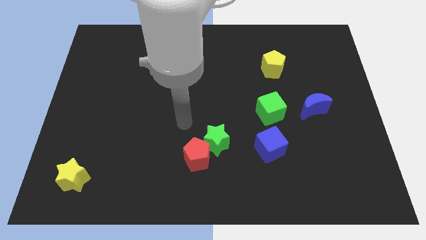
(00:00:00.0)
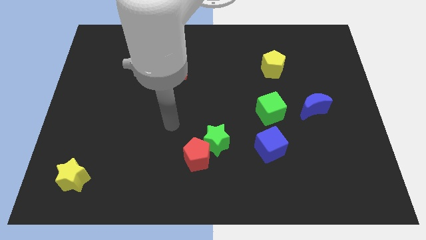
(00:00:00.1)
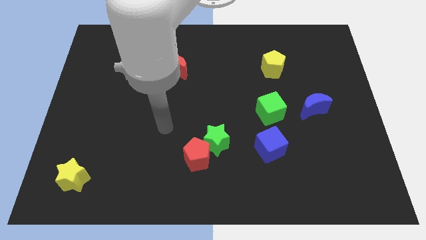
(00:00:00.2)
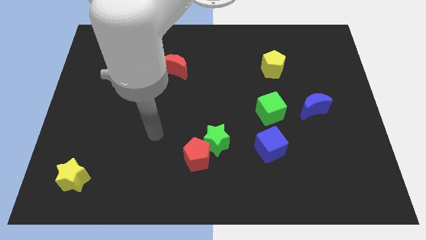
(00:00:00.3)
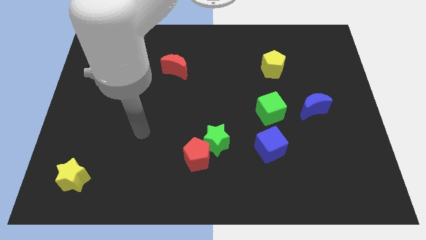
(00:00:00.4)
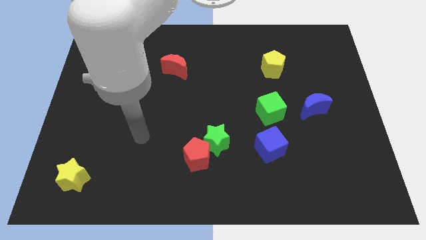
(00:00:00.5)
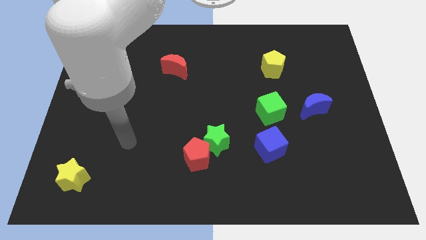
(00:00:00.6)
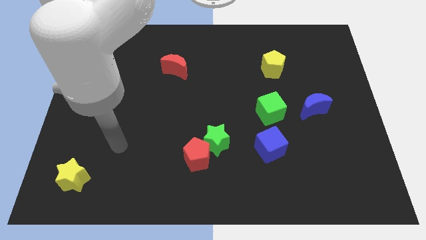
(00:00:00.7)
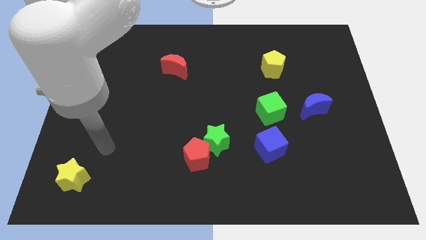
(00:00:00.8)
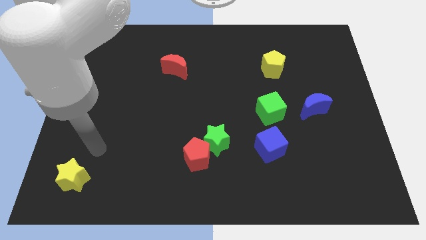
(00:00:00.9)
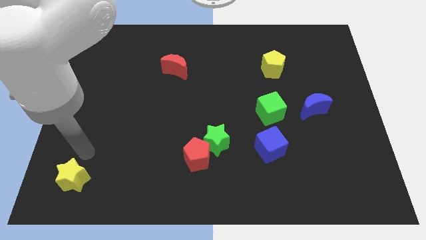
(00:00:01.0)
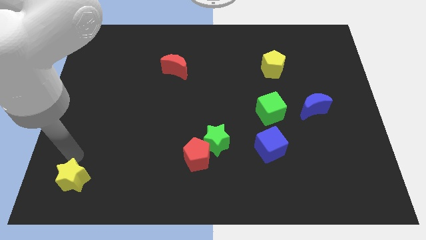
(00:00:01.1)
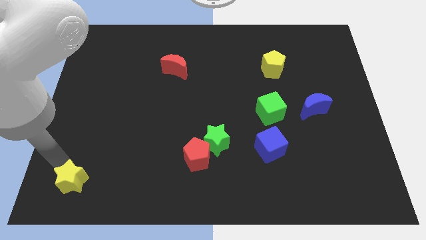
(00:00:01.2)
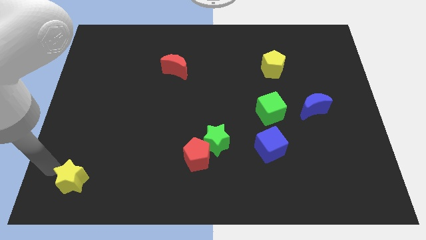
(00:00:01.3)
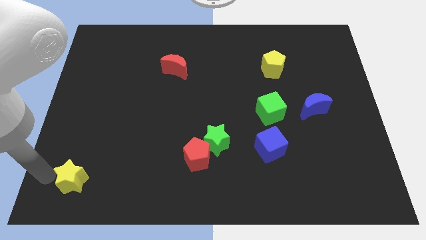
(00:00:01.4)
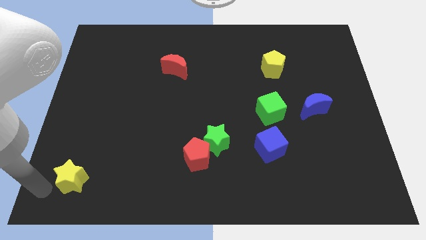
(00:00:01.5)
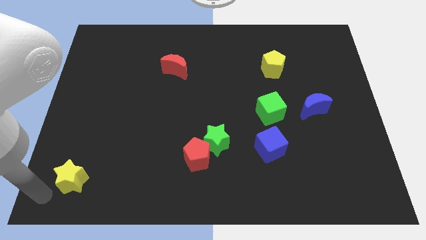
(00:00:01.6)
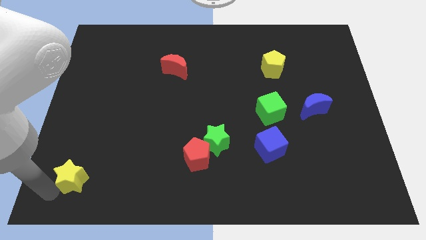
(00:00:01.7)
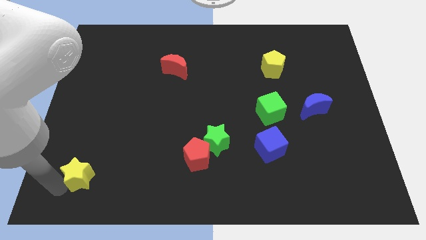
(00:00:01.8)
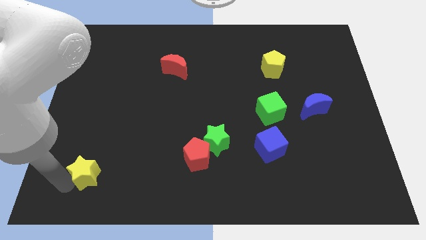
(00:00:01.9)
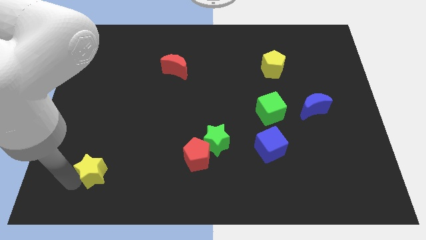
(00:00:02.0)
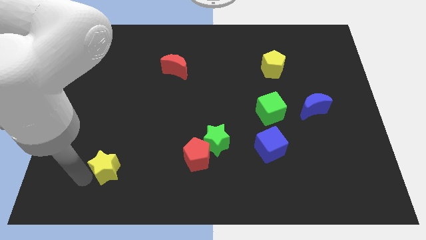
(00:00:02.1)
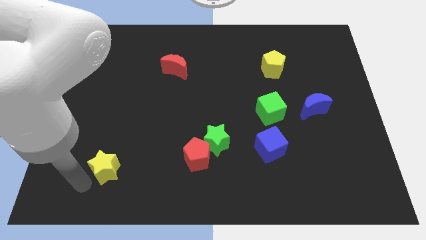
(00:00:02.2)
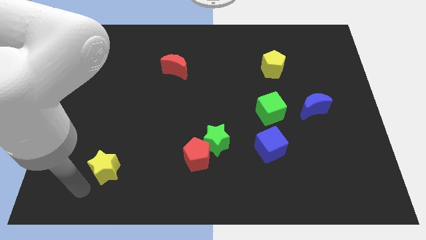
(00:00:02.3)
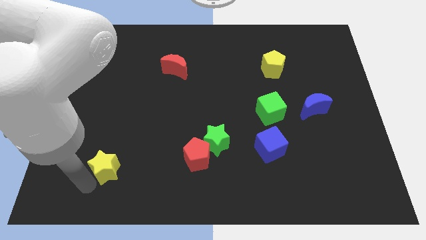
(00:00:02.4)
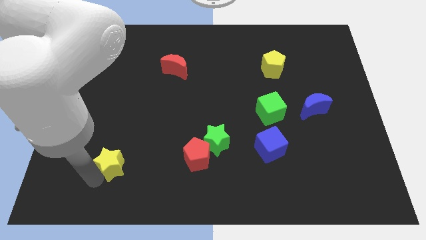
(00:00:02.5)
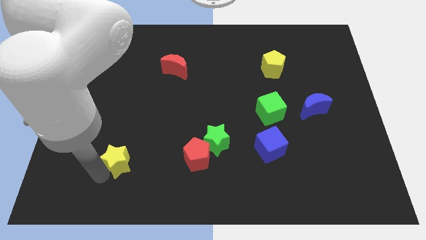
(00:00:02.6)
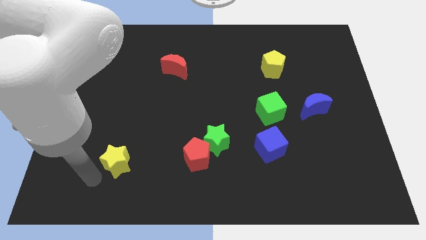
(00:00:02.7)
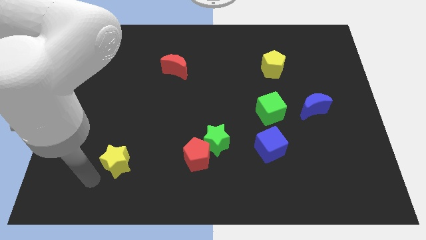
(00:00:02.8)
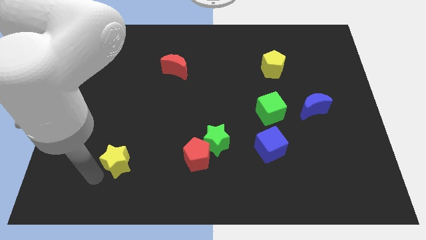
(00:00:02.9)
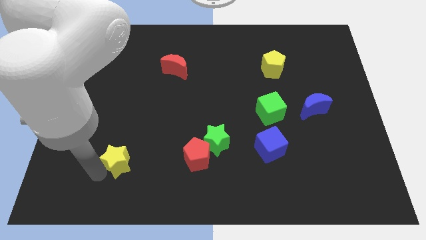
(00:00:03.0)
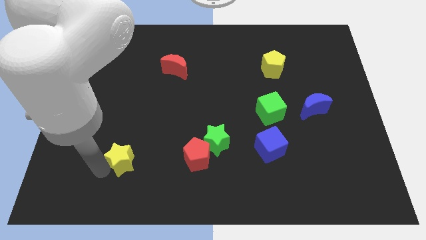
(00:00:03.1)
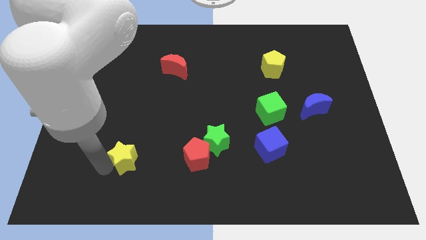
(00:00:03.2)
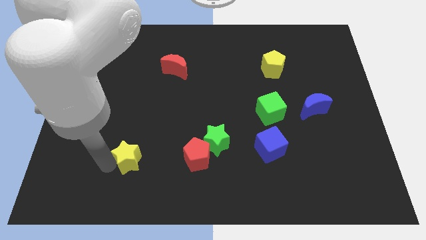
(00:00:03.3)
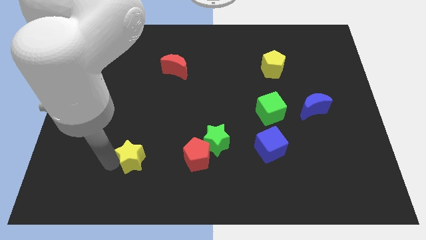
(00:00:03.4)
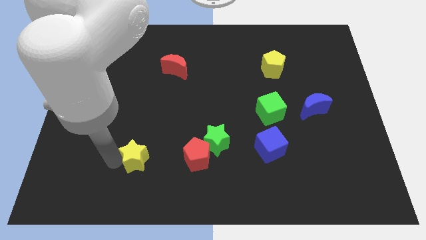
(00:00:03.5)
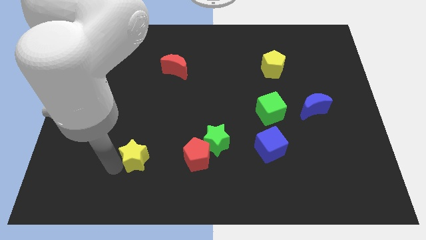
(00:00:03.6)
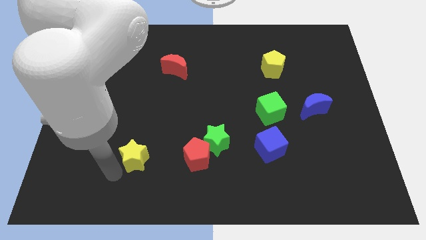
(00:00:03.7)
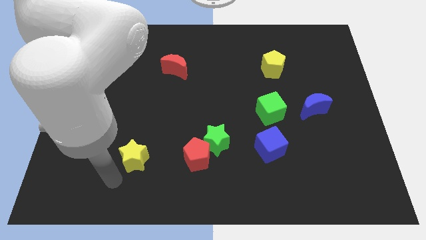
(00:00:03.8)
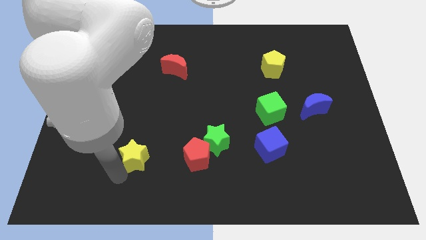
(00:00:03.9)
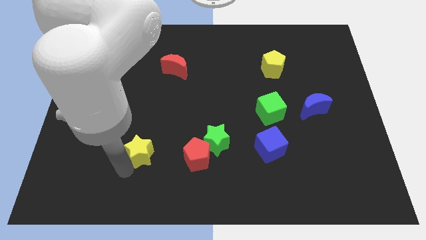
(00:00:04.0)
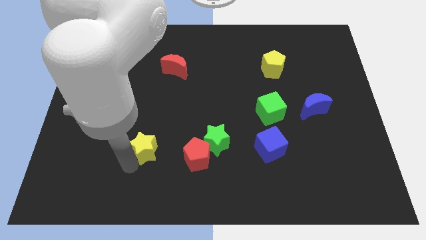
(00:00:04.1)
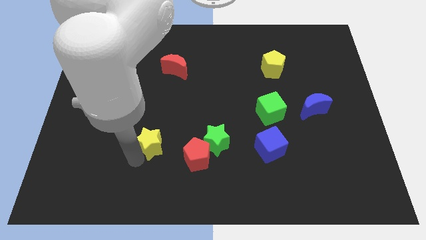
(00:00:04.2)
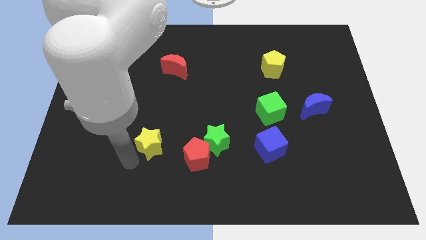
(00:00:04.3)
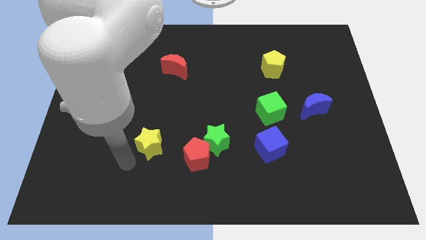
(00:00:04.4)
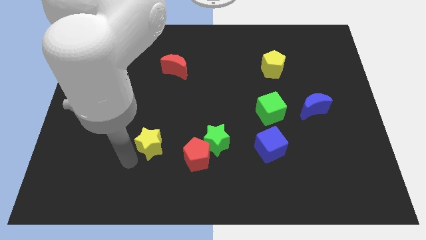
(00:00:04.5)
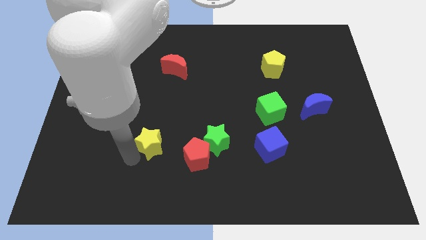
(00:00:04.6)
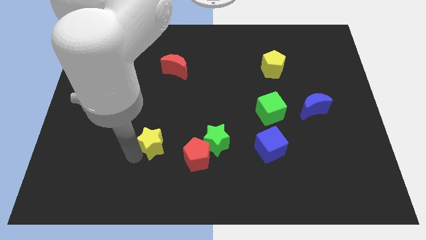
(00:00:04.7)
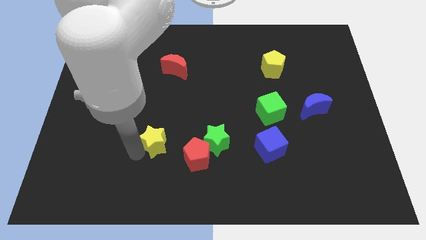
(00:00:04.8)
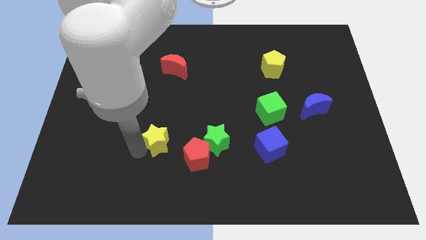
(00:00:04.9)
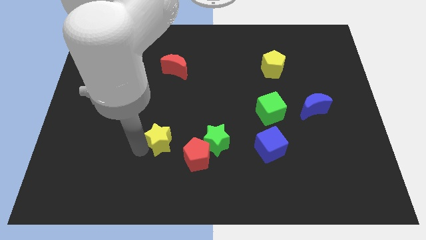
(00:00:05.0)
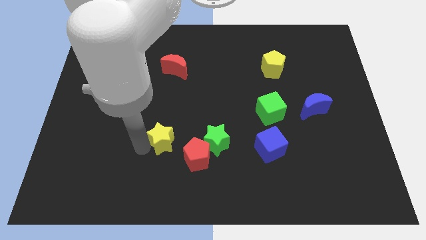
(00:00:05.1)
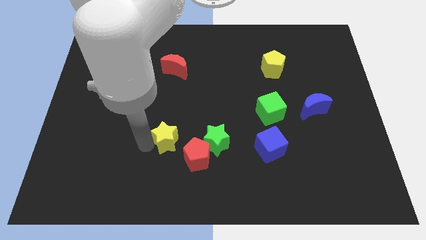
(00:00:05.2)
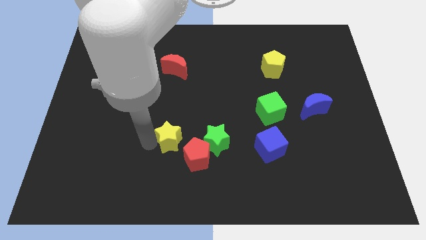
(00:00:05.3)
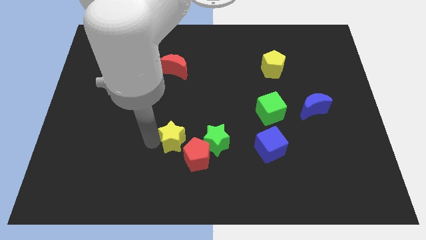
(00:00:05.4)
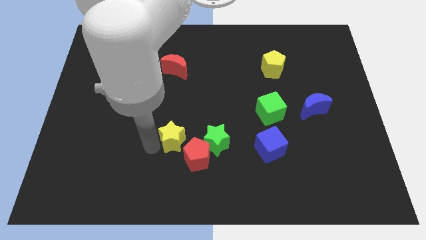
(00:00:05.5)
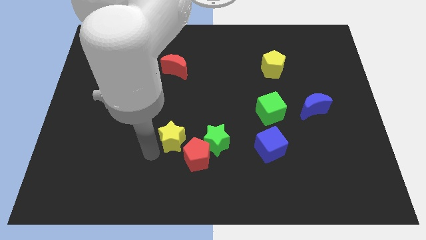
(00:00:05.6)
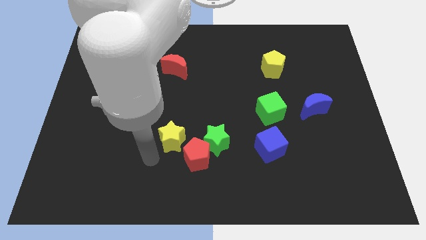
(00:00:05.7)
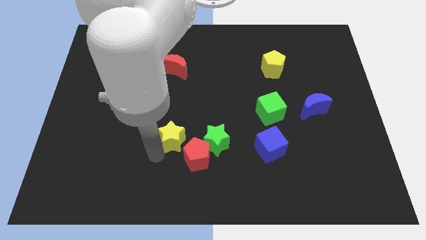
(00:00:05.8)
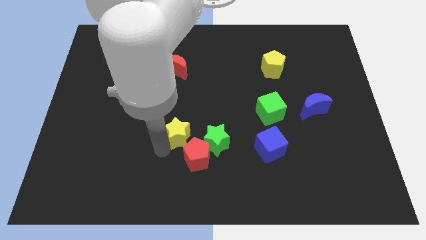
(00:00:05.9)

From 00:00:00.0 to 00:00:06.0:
move the yellow star diagonally up and to the left of the green star

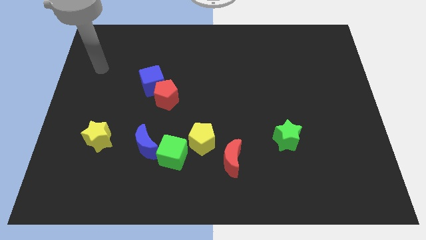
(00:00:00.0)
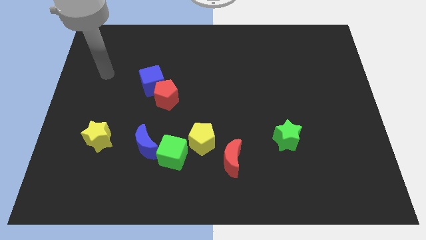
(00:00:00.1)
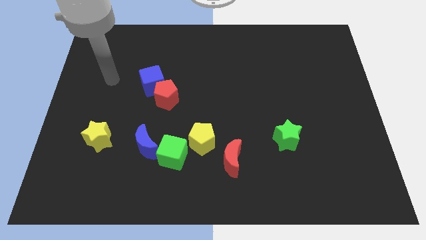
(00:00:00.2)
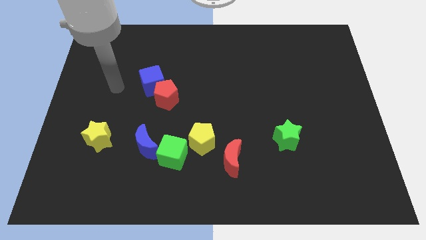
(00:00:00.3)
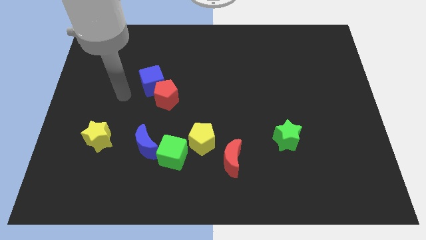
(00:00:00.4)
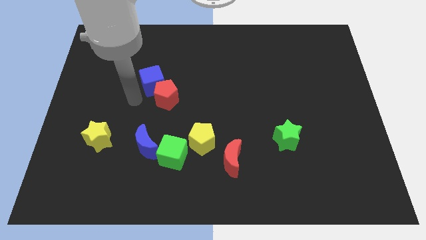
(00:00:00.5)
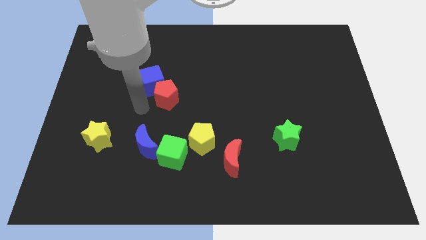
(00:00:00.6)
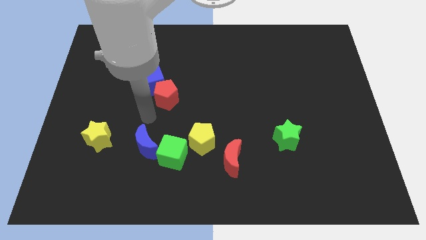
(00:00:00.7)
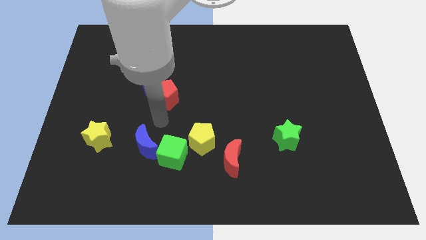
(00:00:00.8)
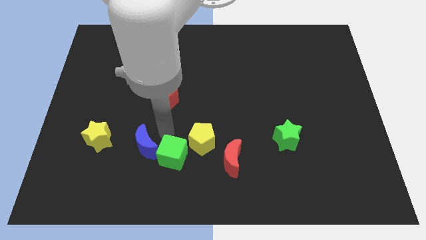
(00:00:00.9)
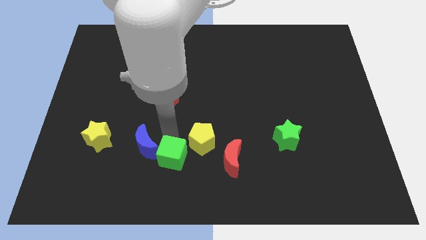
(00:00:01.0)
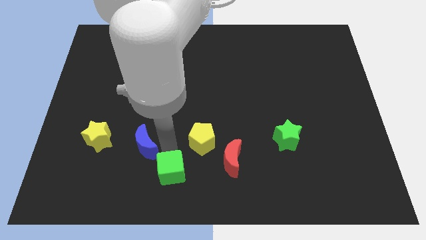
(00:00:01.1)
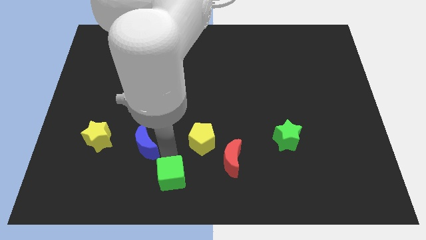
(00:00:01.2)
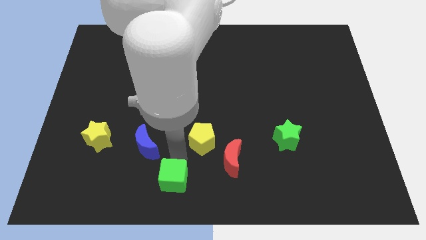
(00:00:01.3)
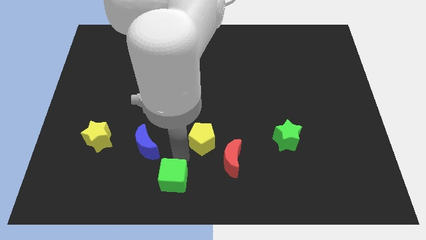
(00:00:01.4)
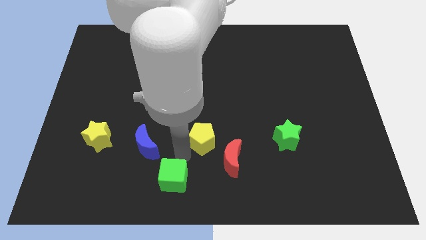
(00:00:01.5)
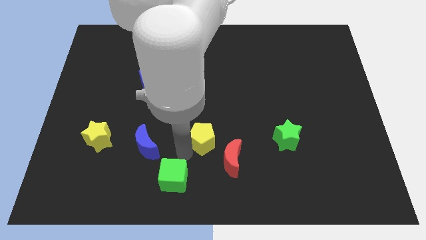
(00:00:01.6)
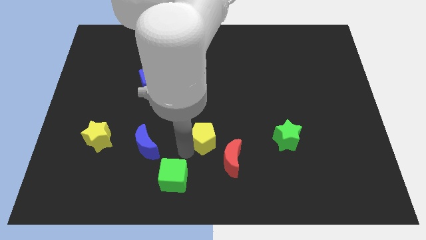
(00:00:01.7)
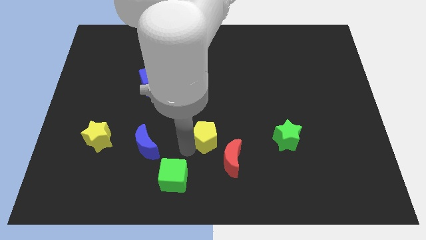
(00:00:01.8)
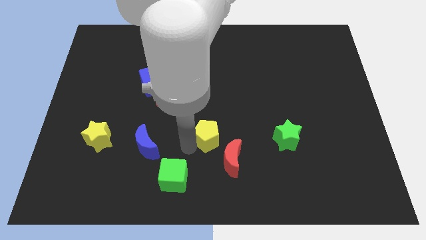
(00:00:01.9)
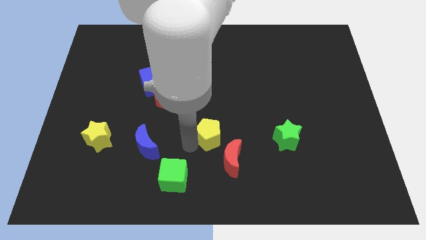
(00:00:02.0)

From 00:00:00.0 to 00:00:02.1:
move the yellow pentagon above the red moon
